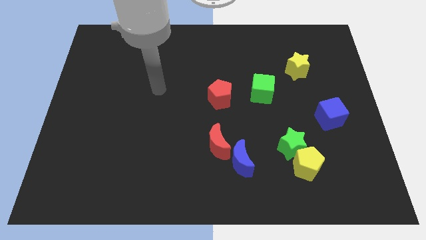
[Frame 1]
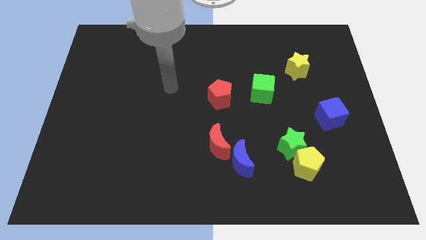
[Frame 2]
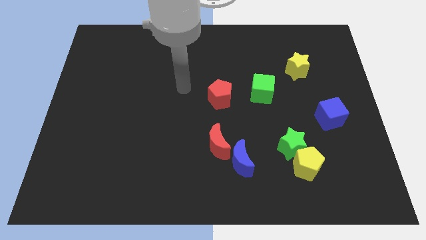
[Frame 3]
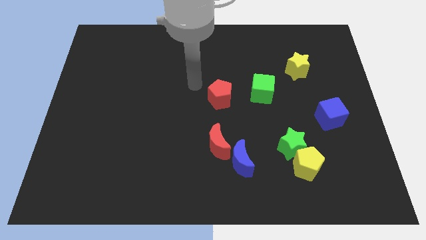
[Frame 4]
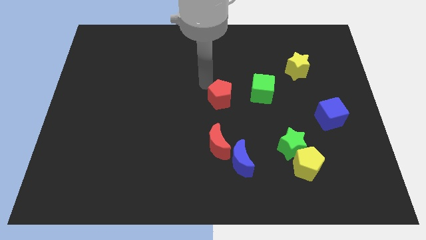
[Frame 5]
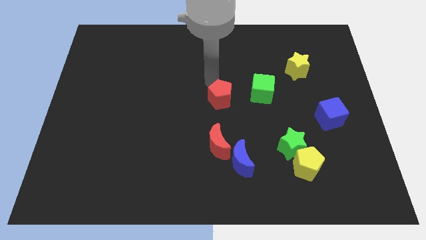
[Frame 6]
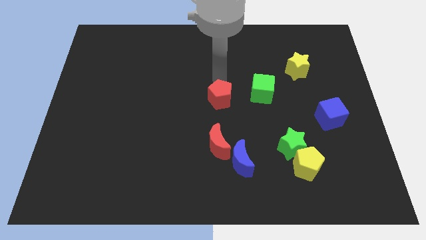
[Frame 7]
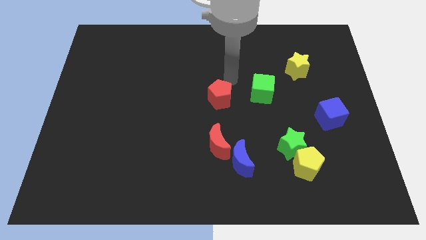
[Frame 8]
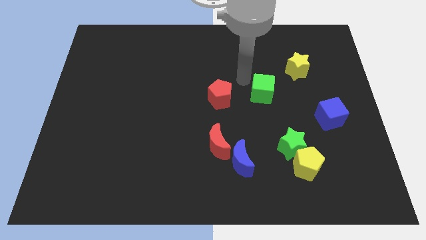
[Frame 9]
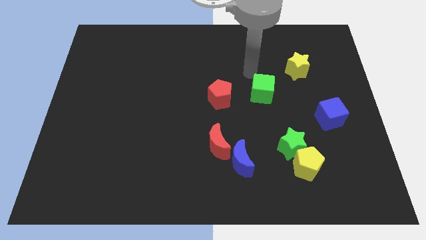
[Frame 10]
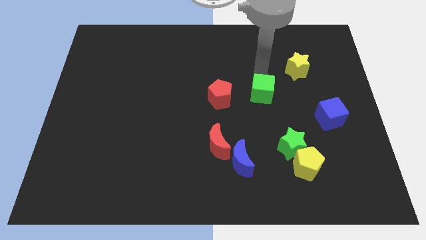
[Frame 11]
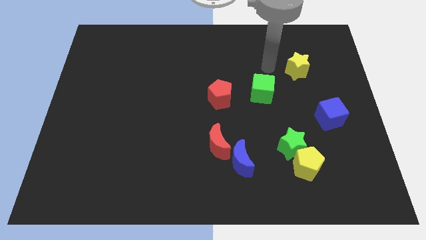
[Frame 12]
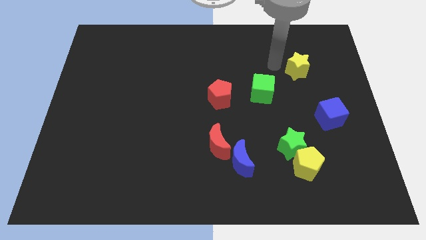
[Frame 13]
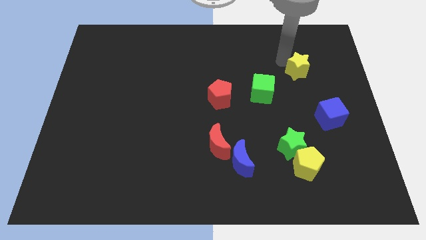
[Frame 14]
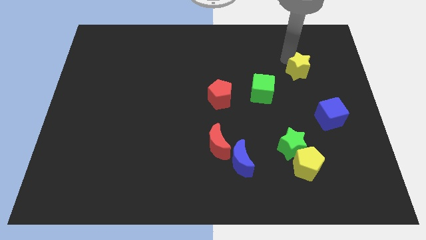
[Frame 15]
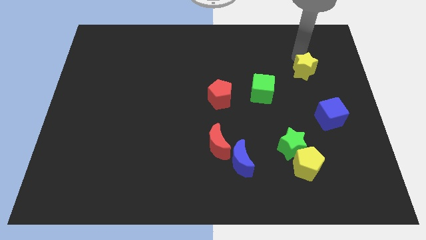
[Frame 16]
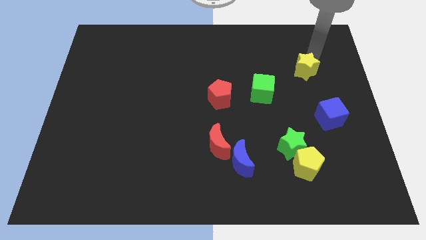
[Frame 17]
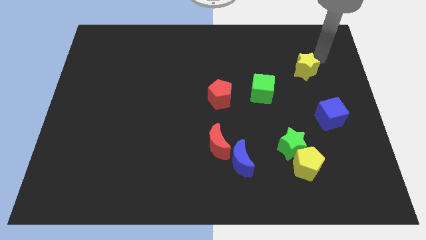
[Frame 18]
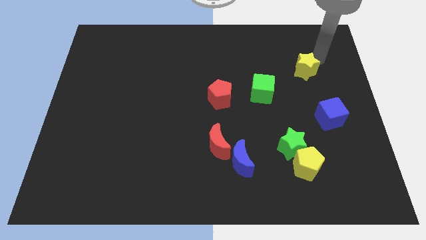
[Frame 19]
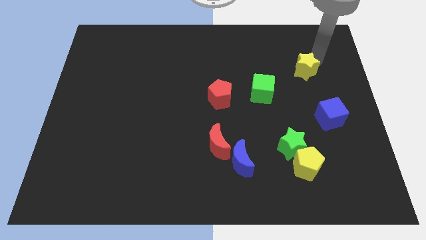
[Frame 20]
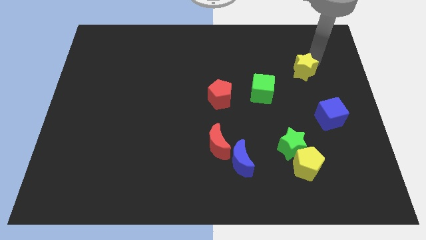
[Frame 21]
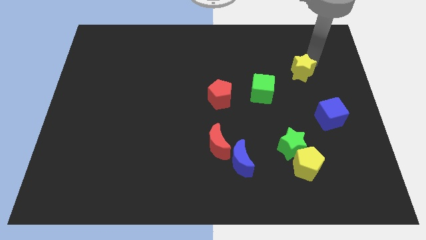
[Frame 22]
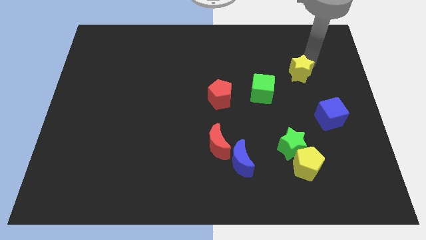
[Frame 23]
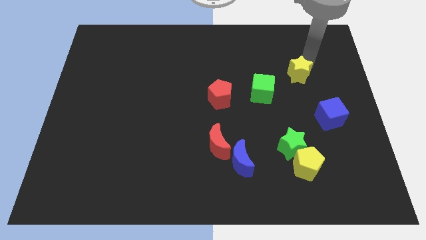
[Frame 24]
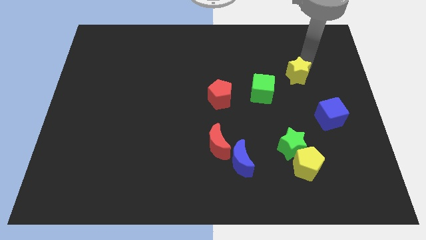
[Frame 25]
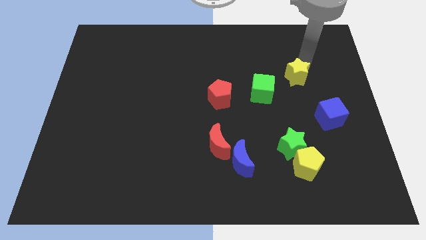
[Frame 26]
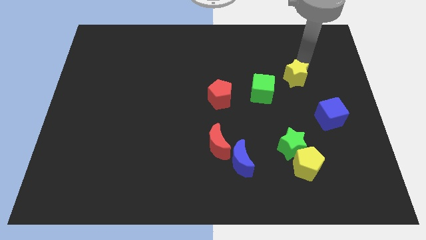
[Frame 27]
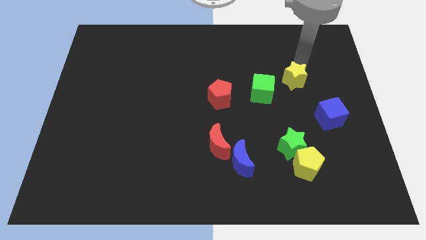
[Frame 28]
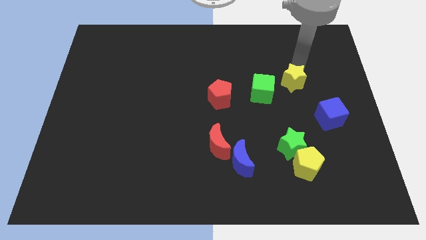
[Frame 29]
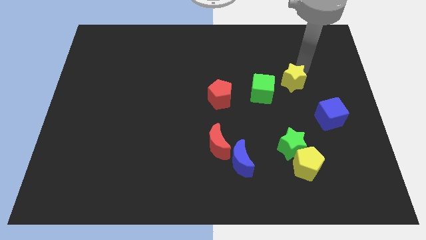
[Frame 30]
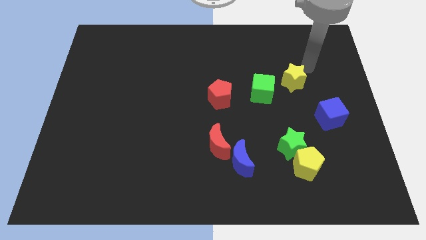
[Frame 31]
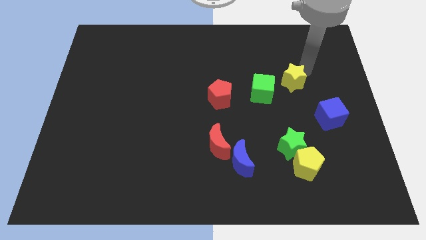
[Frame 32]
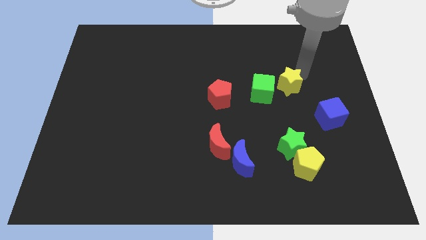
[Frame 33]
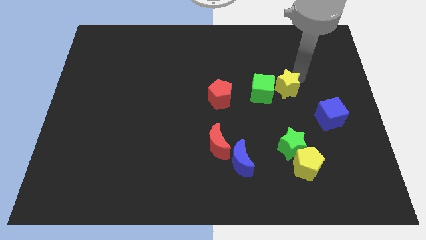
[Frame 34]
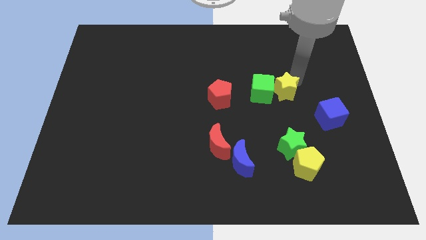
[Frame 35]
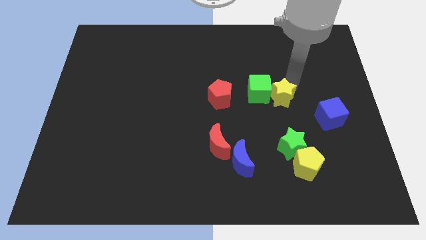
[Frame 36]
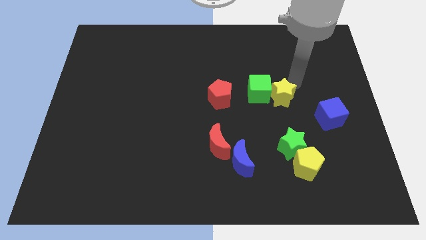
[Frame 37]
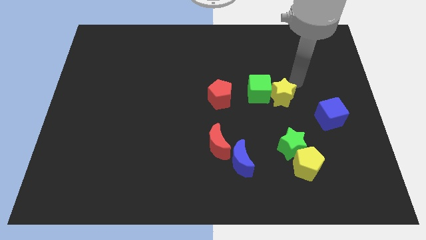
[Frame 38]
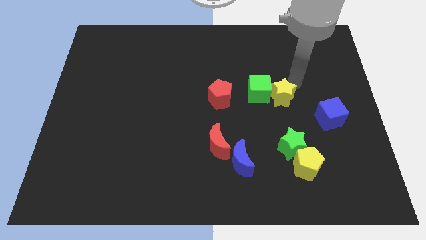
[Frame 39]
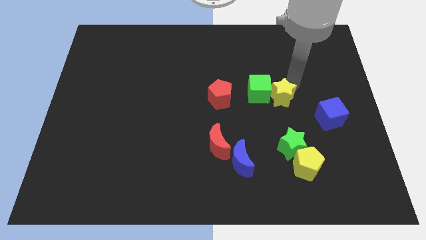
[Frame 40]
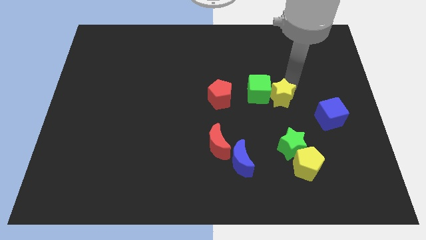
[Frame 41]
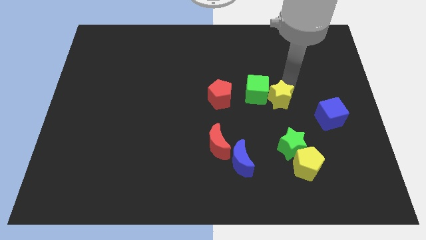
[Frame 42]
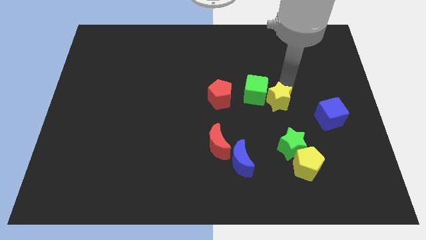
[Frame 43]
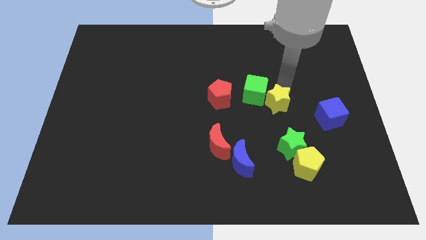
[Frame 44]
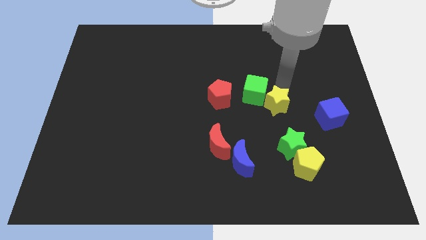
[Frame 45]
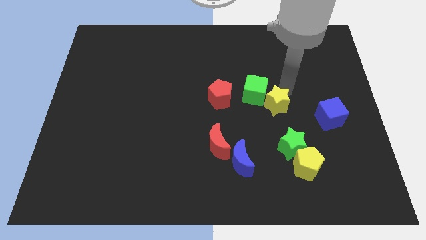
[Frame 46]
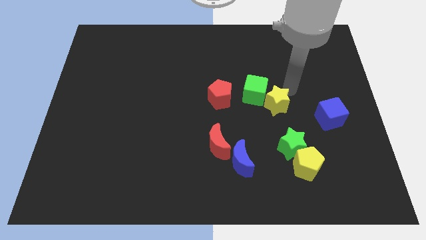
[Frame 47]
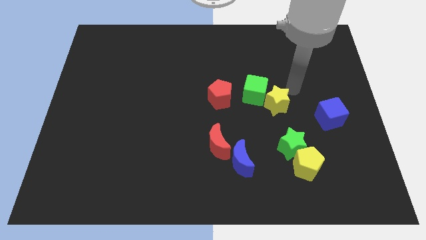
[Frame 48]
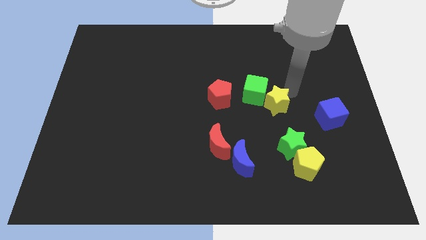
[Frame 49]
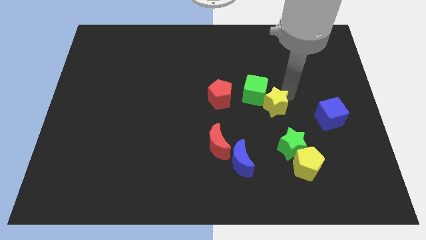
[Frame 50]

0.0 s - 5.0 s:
slide the yellow star below the green cube

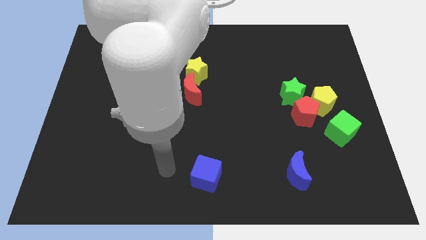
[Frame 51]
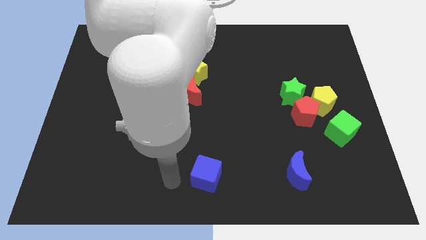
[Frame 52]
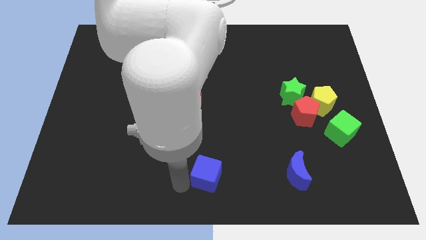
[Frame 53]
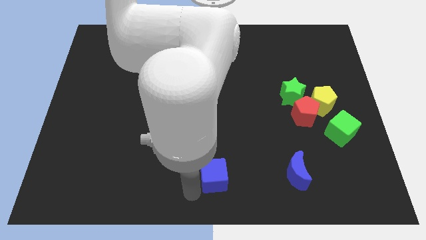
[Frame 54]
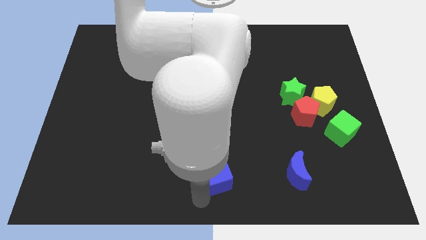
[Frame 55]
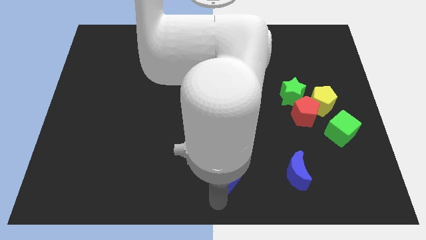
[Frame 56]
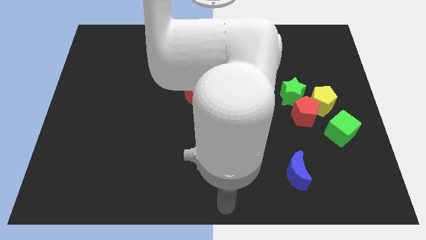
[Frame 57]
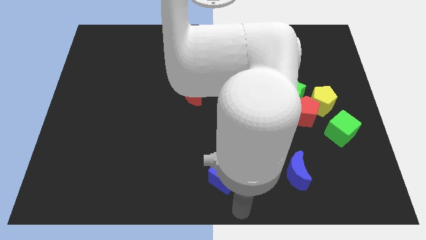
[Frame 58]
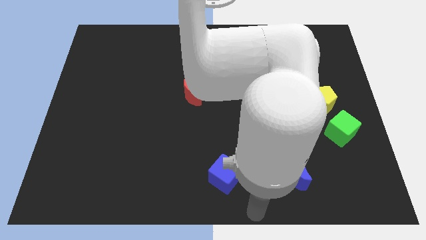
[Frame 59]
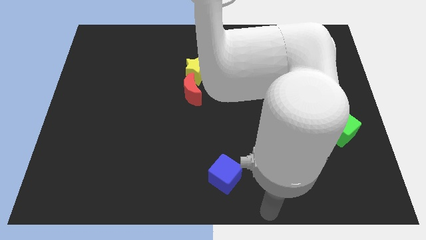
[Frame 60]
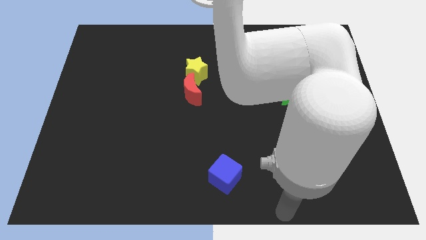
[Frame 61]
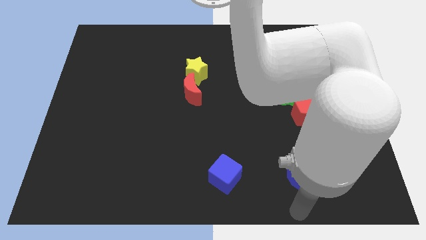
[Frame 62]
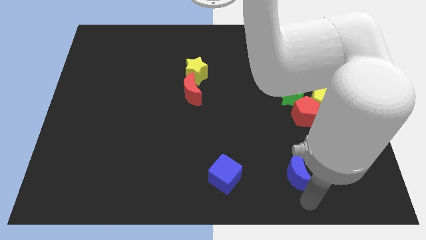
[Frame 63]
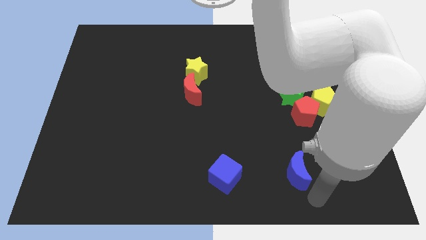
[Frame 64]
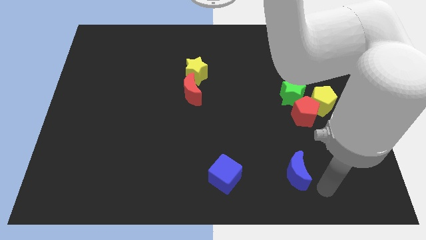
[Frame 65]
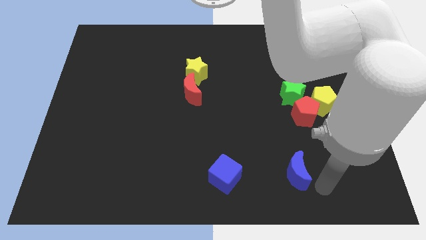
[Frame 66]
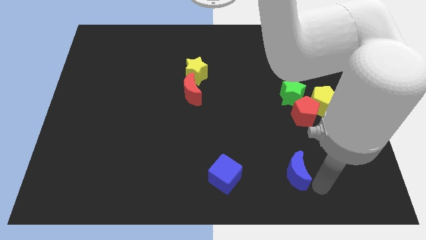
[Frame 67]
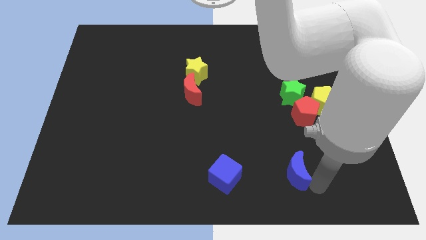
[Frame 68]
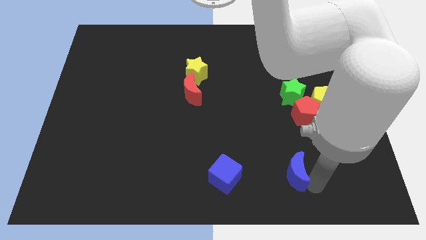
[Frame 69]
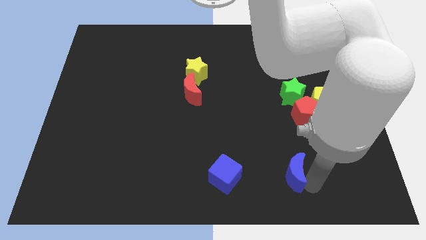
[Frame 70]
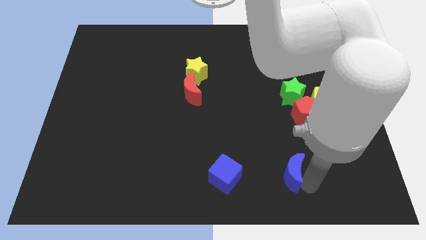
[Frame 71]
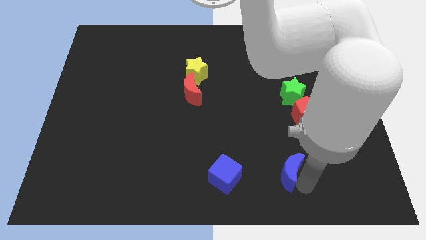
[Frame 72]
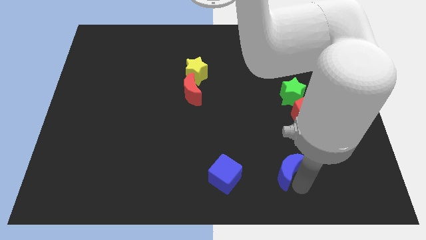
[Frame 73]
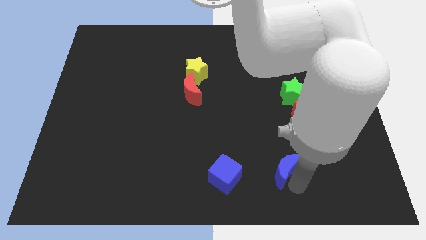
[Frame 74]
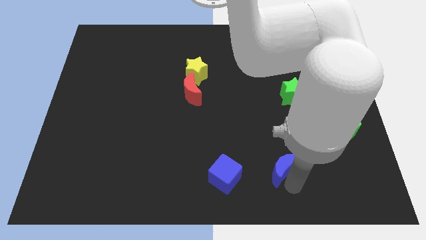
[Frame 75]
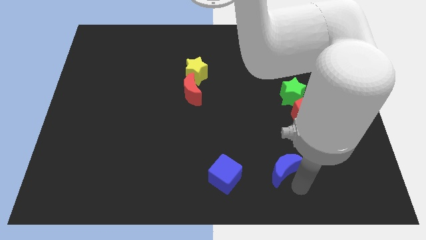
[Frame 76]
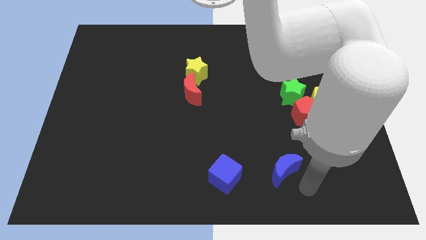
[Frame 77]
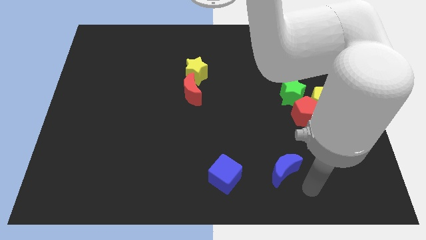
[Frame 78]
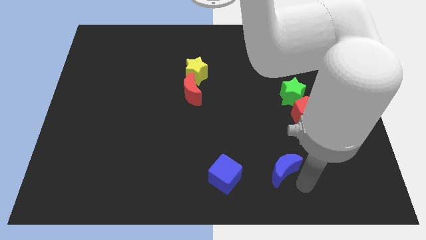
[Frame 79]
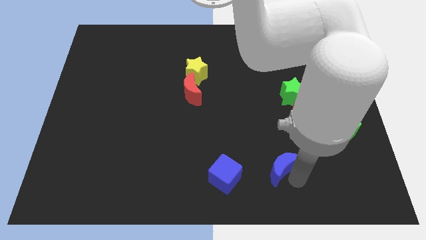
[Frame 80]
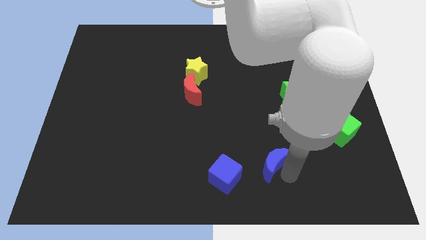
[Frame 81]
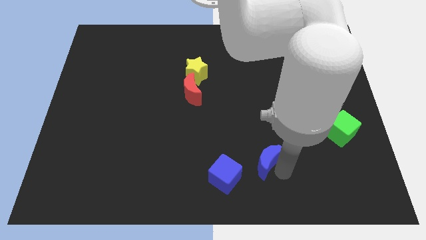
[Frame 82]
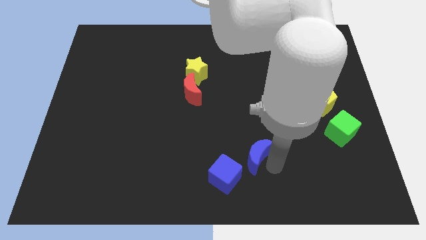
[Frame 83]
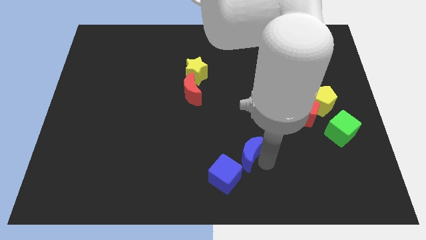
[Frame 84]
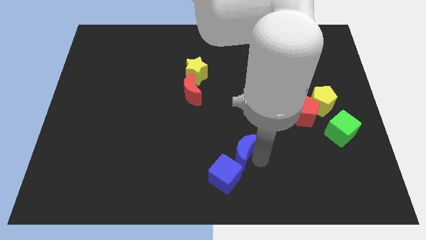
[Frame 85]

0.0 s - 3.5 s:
move the blue moon above the blue cube
